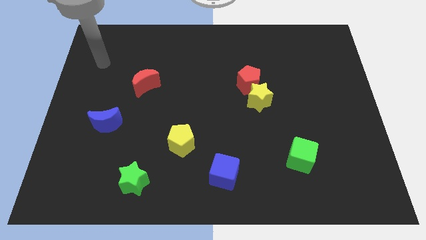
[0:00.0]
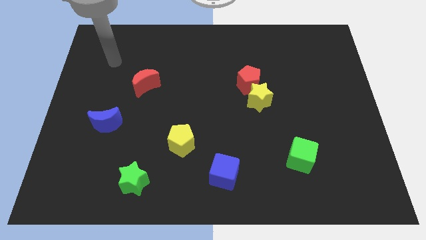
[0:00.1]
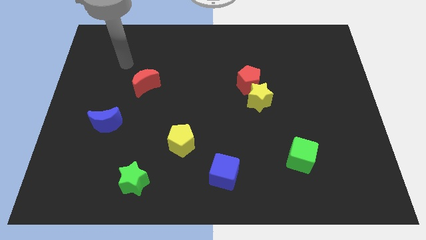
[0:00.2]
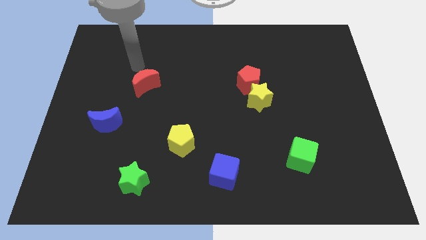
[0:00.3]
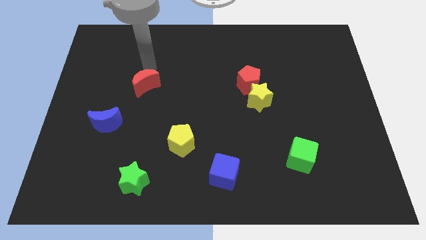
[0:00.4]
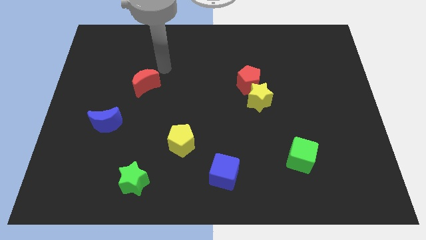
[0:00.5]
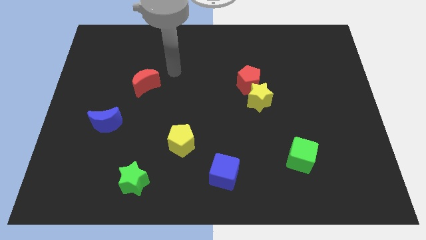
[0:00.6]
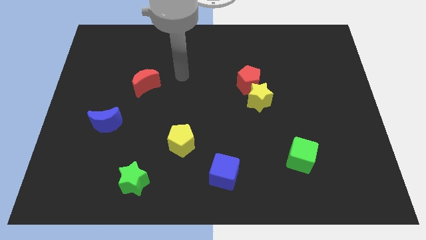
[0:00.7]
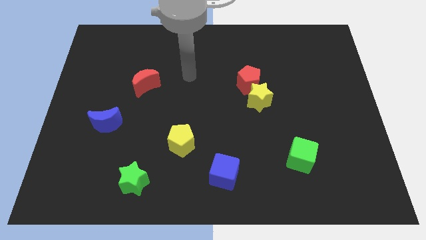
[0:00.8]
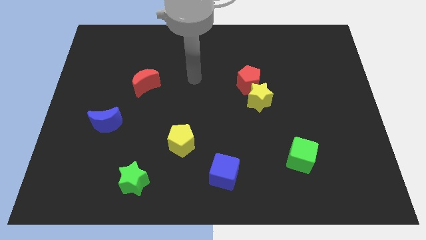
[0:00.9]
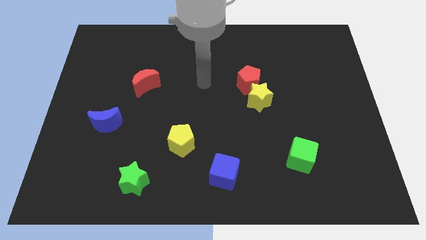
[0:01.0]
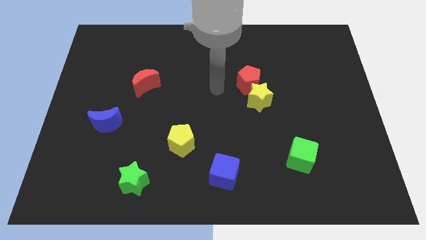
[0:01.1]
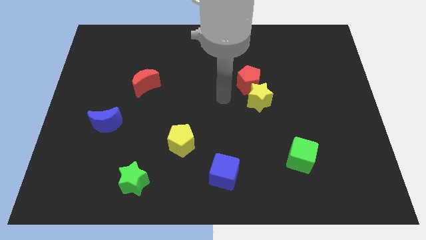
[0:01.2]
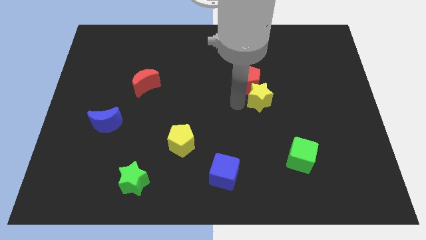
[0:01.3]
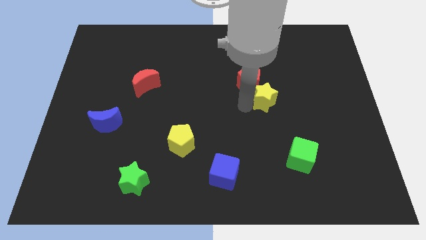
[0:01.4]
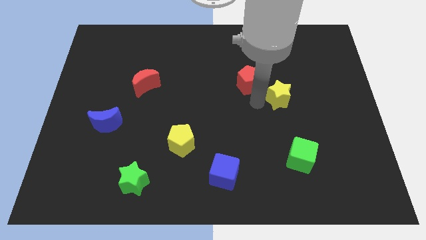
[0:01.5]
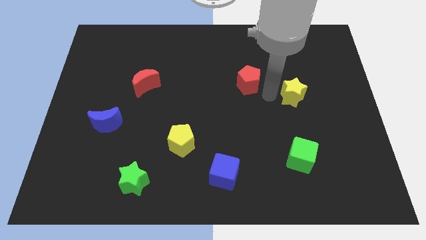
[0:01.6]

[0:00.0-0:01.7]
pull the red pentagon apart from the yellow star

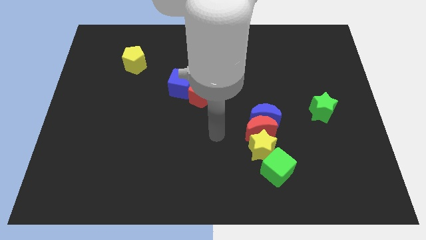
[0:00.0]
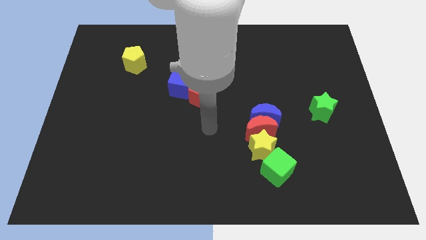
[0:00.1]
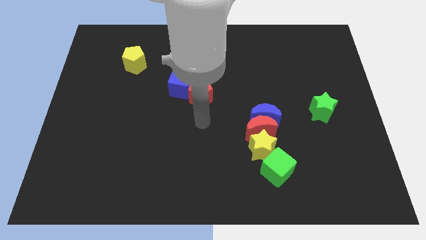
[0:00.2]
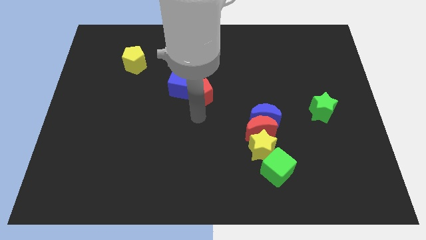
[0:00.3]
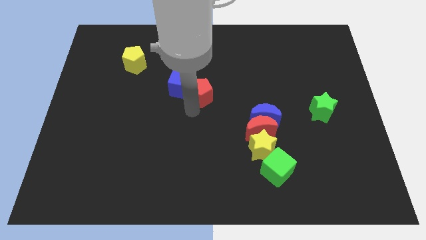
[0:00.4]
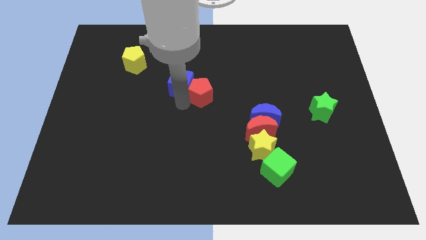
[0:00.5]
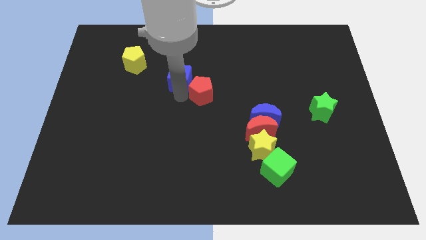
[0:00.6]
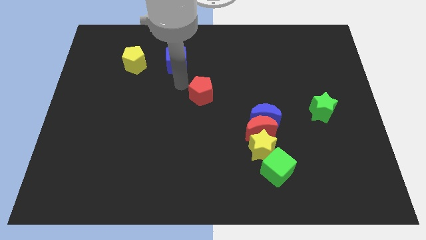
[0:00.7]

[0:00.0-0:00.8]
separate the red pentagon from the blue cube

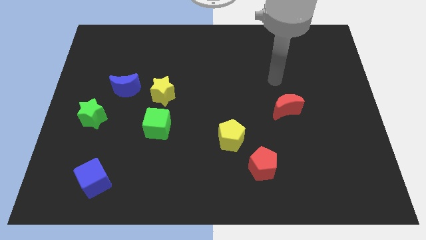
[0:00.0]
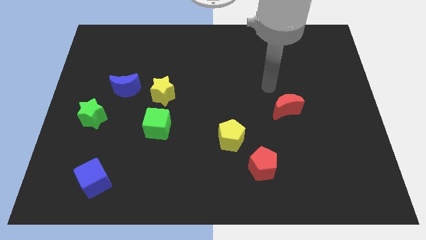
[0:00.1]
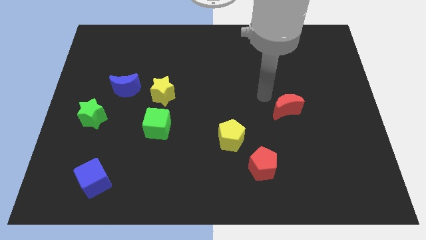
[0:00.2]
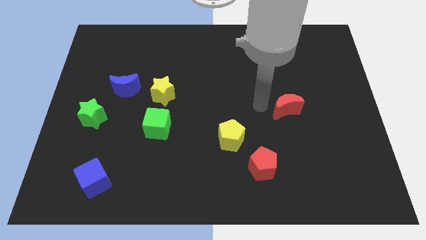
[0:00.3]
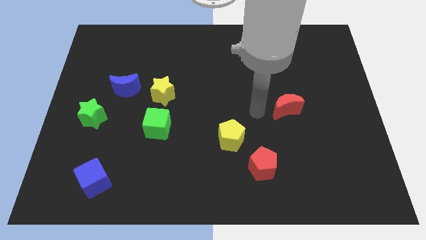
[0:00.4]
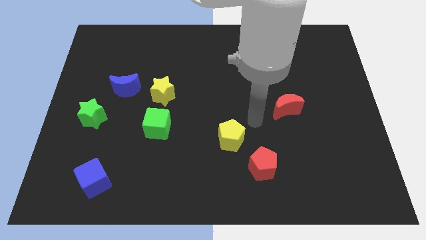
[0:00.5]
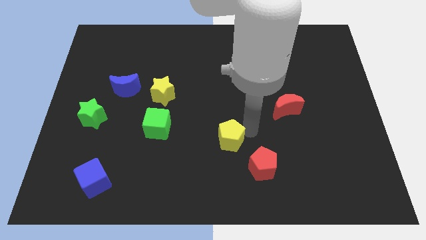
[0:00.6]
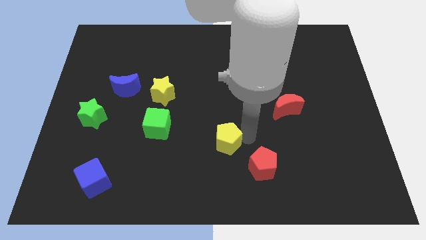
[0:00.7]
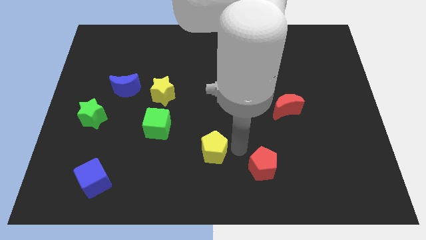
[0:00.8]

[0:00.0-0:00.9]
pull the red pentagon apart from the yellow pentagon

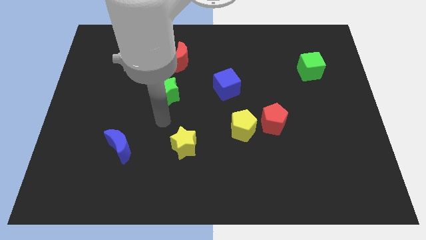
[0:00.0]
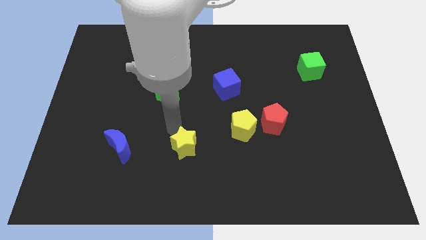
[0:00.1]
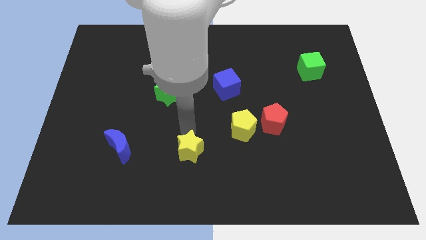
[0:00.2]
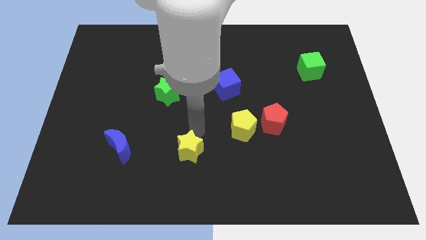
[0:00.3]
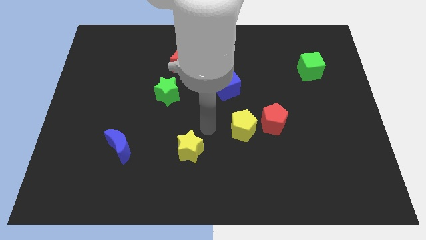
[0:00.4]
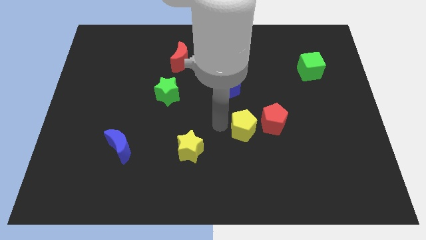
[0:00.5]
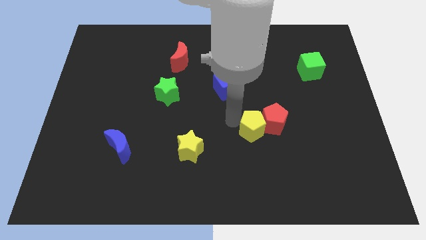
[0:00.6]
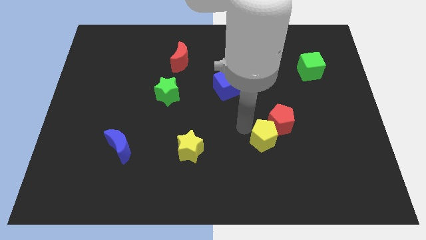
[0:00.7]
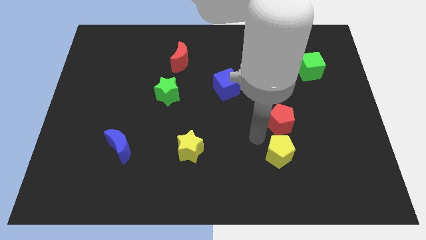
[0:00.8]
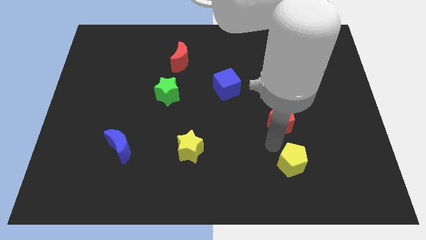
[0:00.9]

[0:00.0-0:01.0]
separate the red pentagon from the yellow pentagon

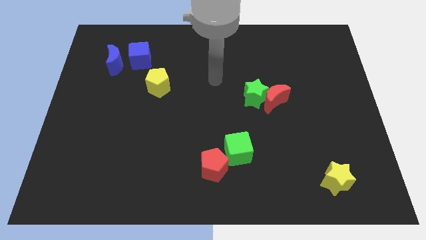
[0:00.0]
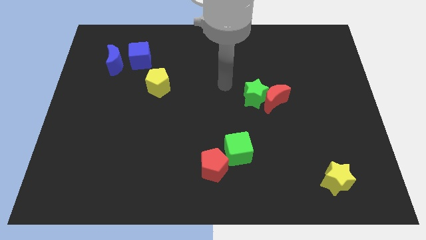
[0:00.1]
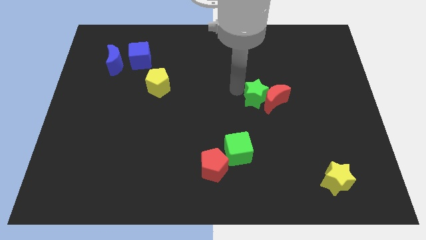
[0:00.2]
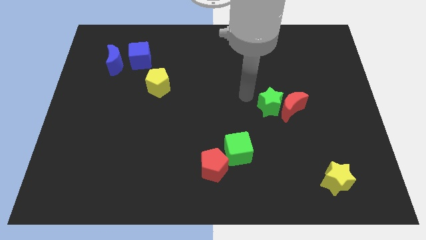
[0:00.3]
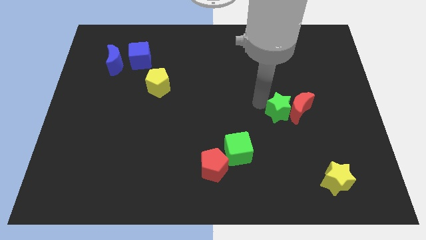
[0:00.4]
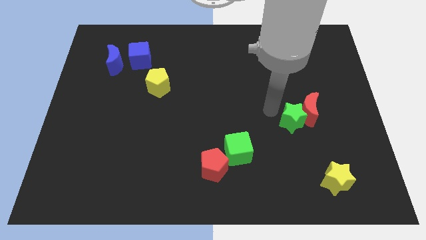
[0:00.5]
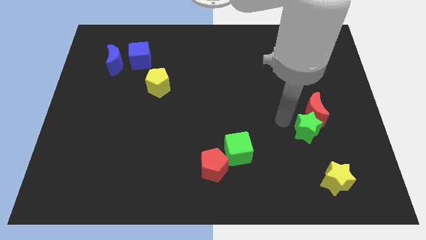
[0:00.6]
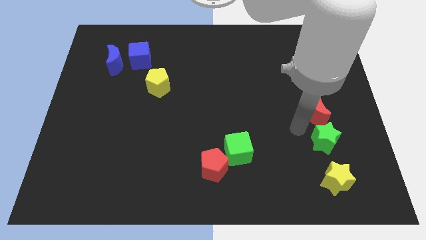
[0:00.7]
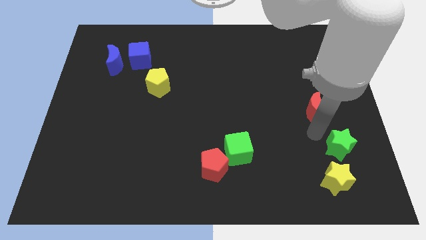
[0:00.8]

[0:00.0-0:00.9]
move the red moon away from the green star

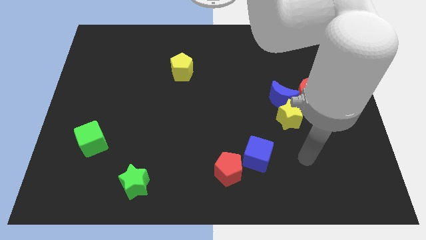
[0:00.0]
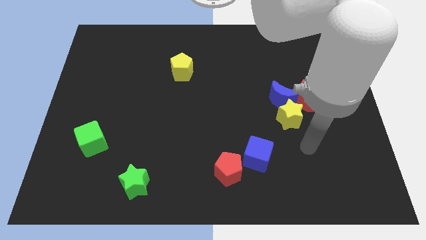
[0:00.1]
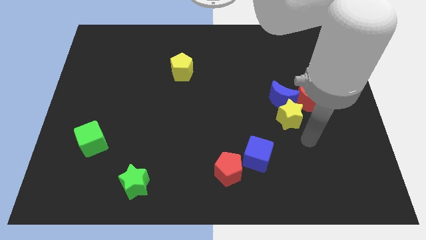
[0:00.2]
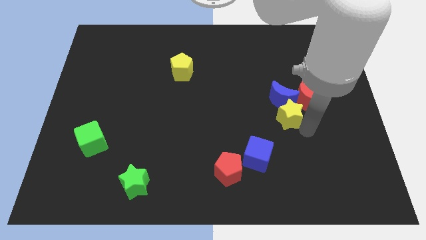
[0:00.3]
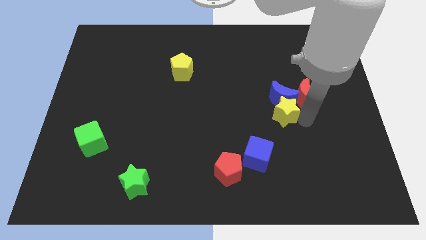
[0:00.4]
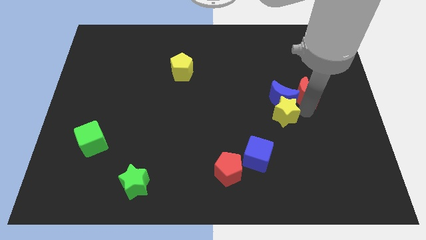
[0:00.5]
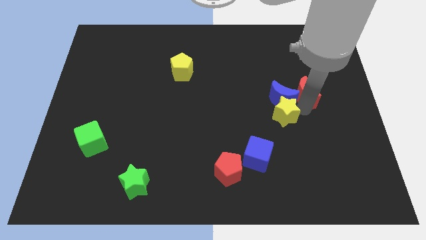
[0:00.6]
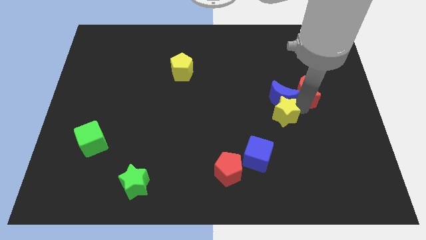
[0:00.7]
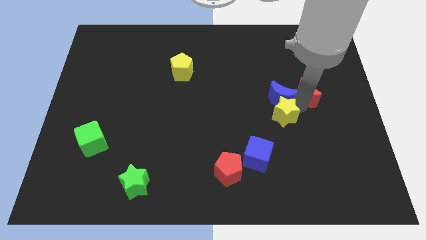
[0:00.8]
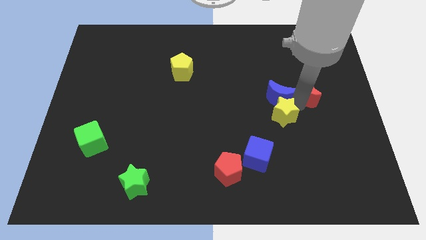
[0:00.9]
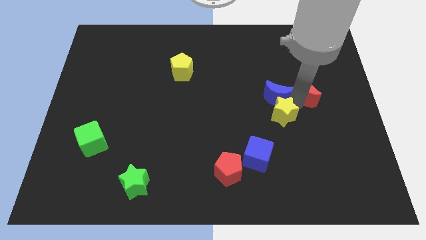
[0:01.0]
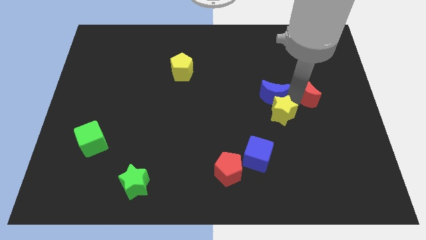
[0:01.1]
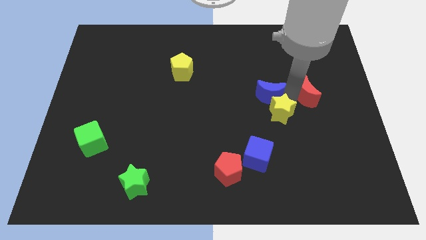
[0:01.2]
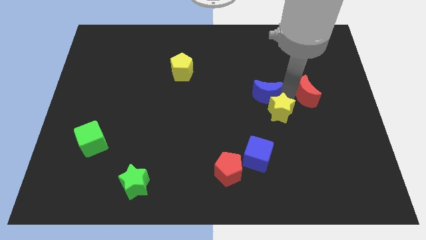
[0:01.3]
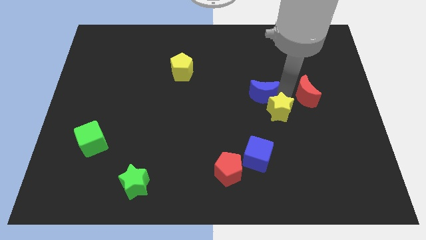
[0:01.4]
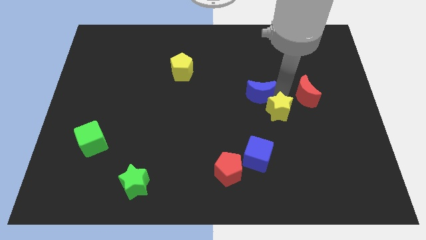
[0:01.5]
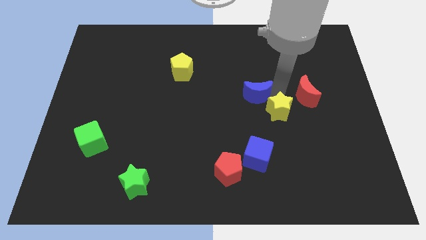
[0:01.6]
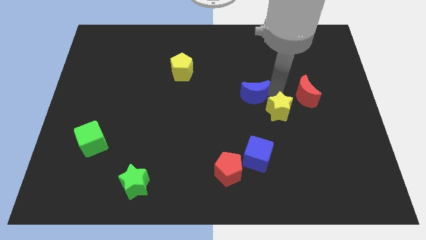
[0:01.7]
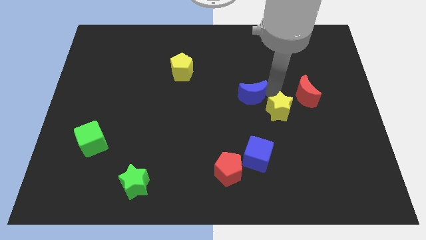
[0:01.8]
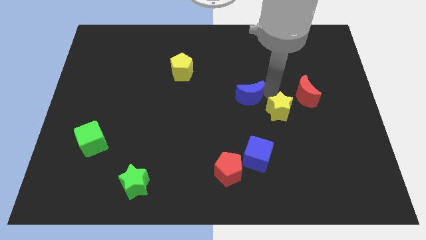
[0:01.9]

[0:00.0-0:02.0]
separate the blue moon from the red moon and yellow star

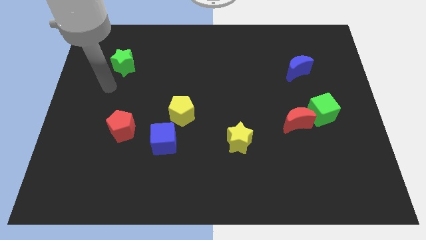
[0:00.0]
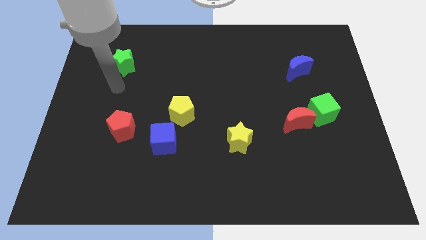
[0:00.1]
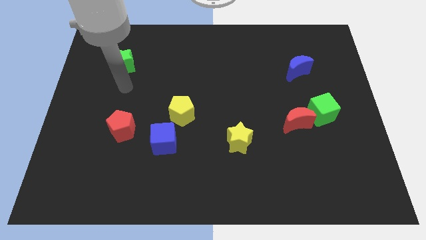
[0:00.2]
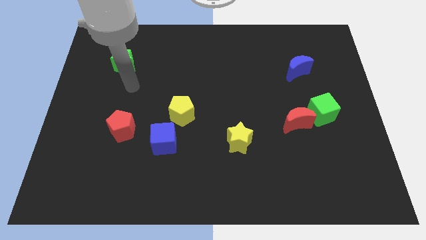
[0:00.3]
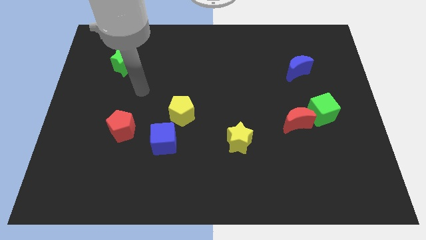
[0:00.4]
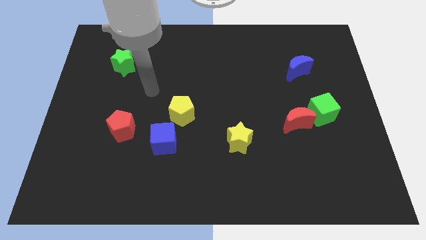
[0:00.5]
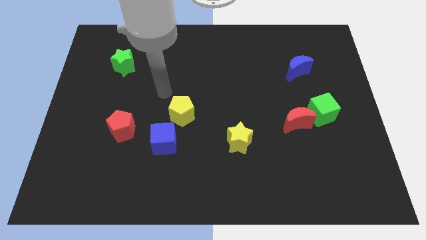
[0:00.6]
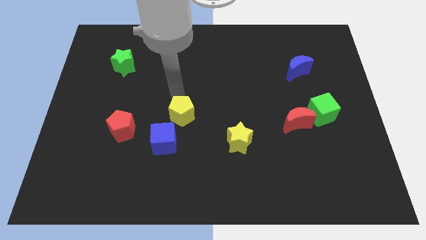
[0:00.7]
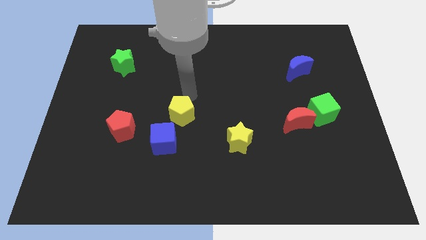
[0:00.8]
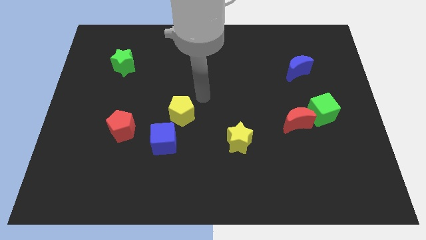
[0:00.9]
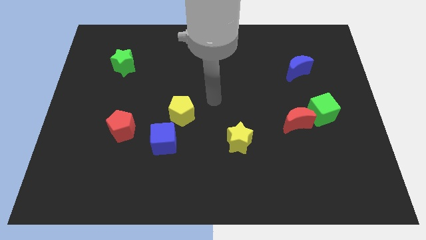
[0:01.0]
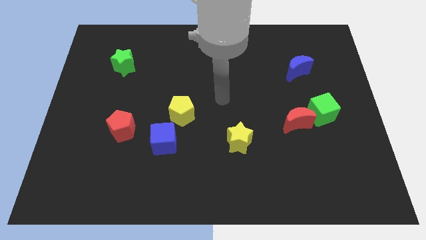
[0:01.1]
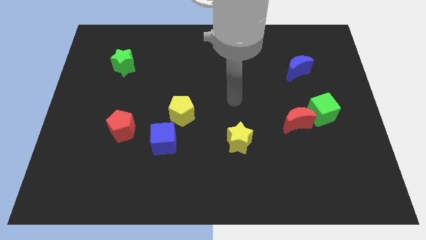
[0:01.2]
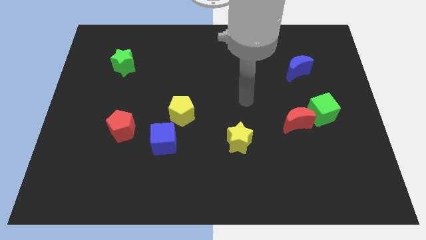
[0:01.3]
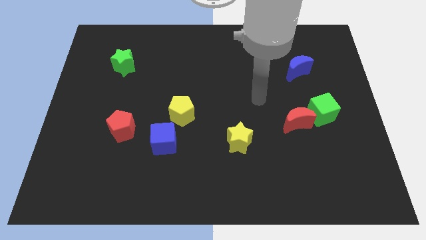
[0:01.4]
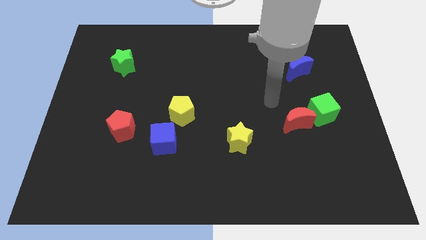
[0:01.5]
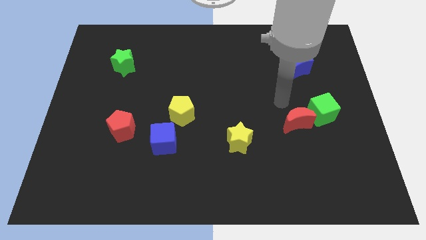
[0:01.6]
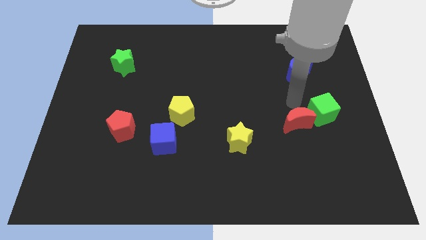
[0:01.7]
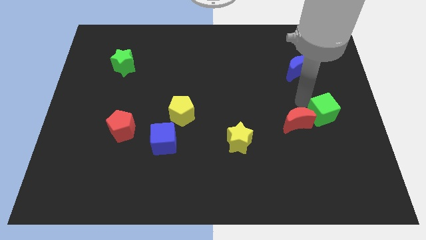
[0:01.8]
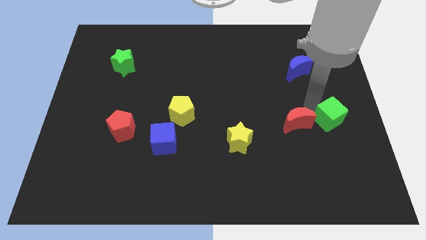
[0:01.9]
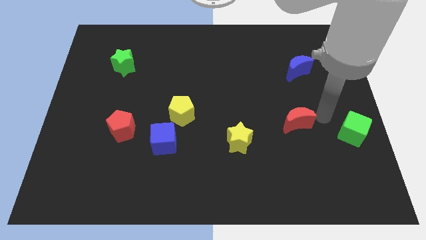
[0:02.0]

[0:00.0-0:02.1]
move the red moon away from the green cube
